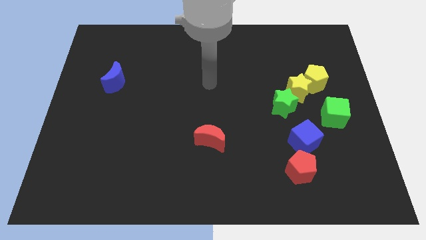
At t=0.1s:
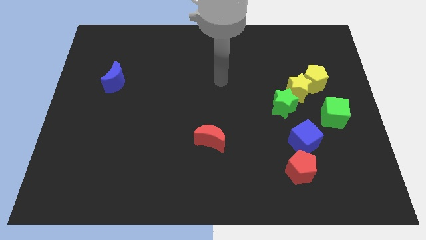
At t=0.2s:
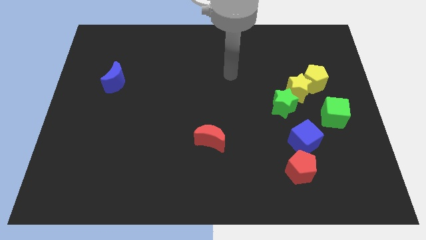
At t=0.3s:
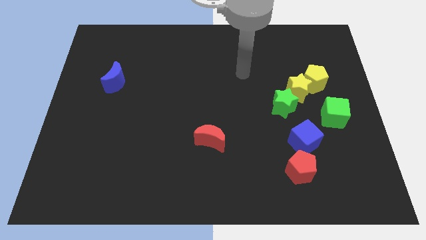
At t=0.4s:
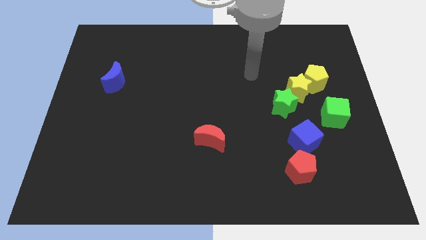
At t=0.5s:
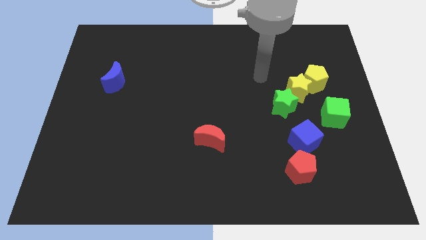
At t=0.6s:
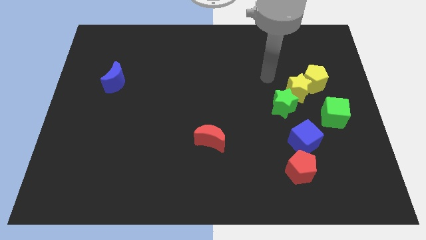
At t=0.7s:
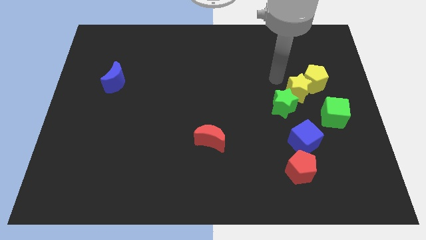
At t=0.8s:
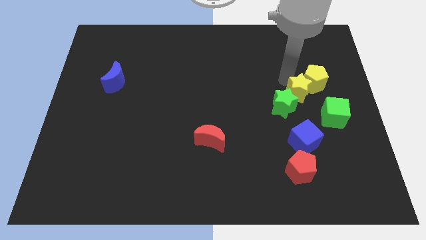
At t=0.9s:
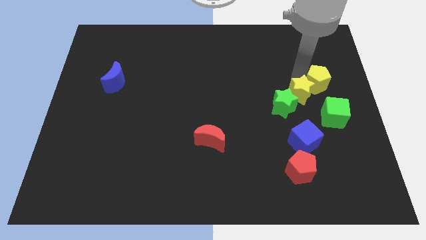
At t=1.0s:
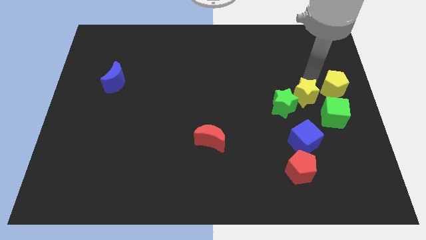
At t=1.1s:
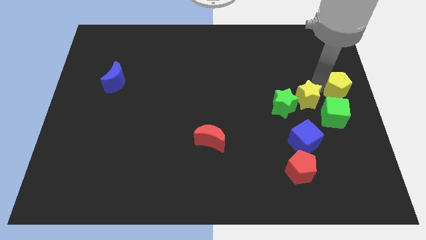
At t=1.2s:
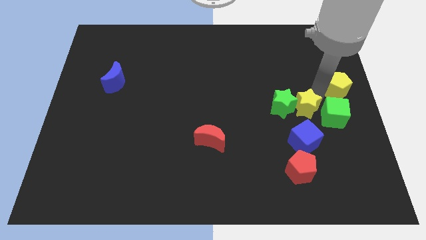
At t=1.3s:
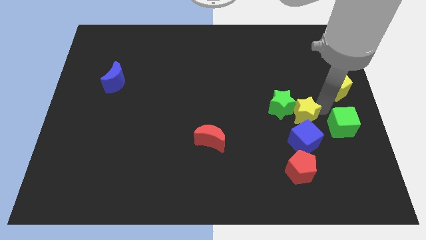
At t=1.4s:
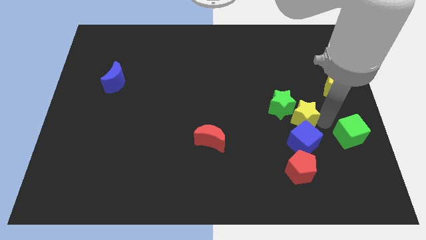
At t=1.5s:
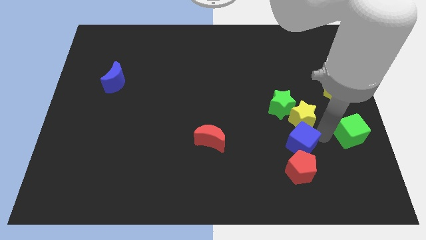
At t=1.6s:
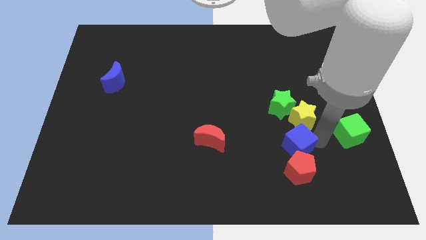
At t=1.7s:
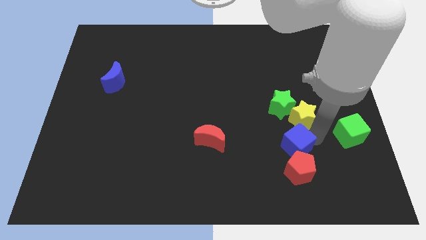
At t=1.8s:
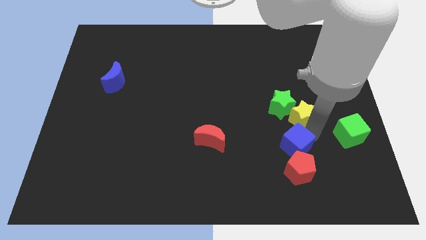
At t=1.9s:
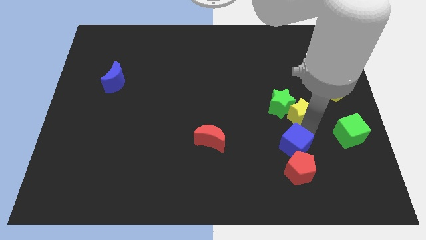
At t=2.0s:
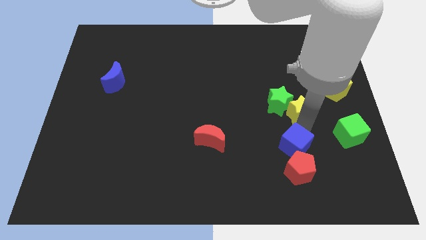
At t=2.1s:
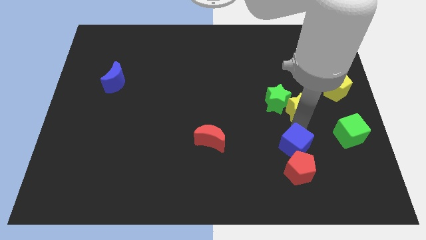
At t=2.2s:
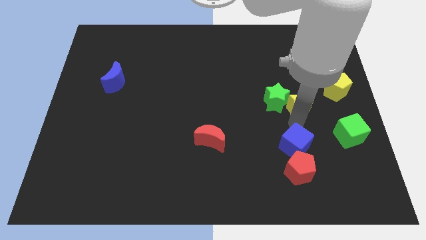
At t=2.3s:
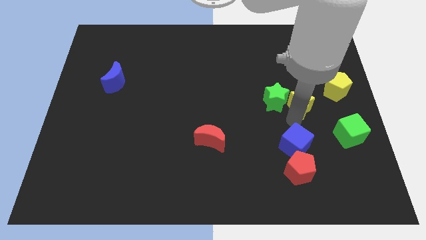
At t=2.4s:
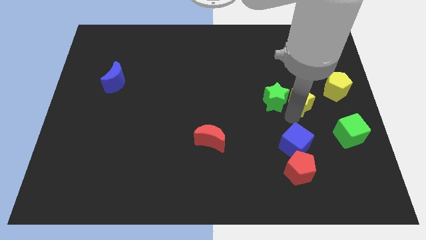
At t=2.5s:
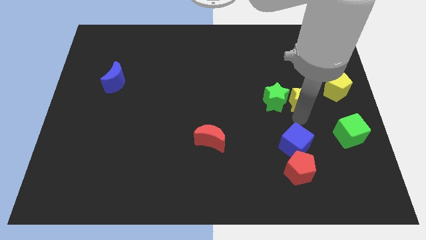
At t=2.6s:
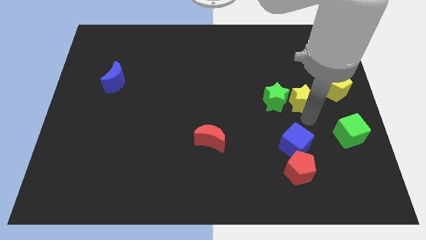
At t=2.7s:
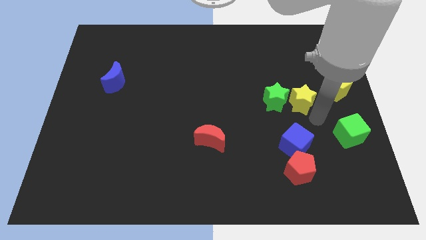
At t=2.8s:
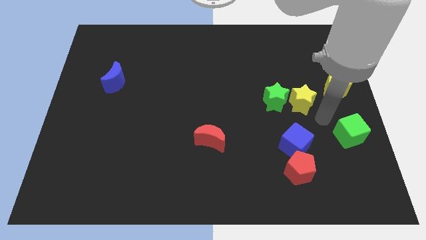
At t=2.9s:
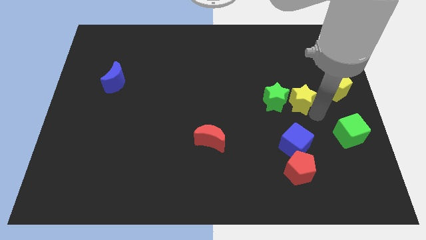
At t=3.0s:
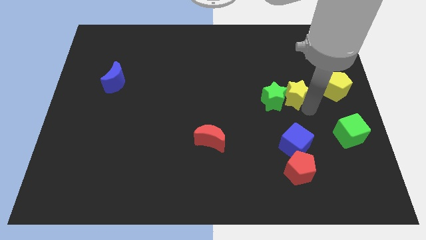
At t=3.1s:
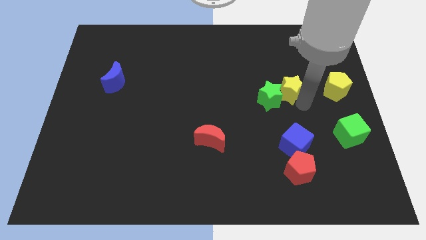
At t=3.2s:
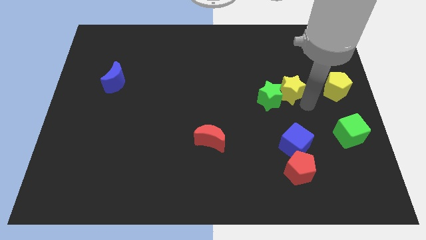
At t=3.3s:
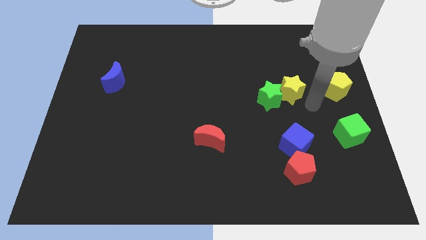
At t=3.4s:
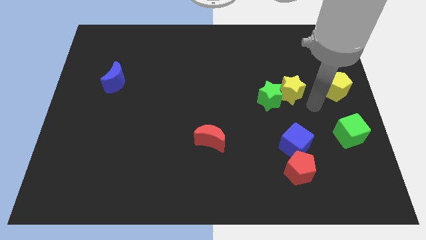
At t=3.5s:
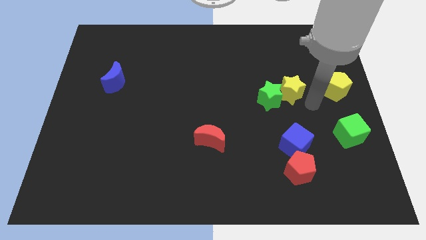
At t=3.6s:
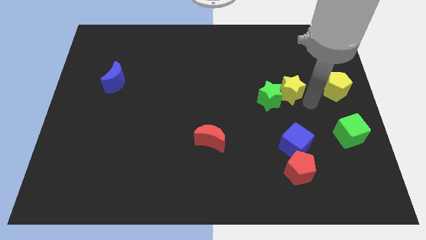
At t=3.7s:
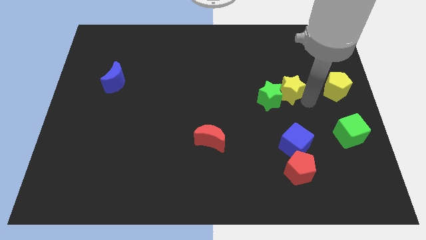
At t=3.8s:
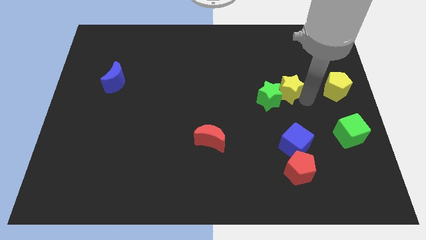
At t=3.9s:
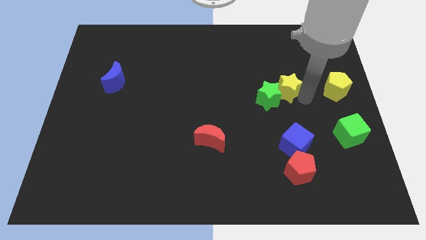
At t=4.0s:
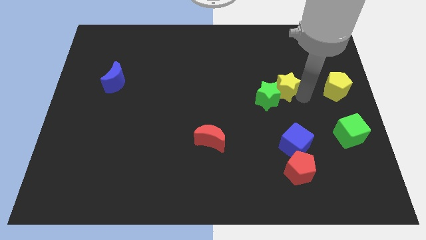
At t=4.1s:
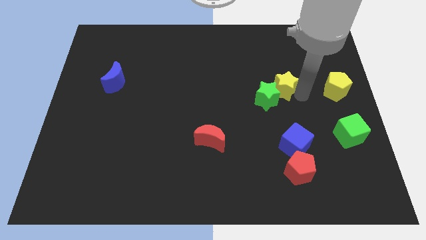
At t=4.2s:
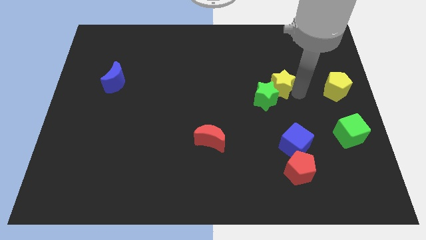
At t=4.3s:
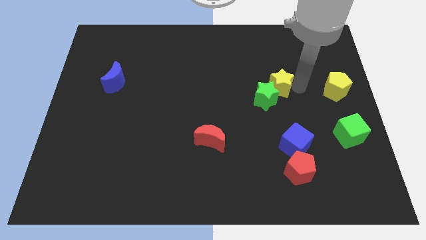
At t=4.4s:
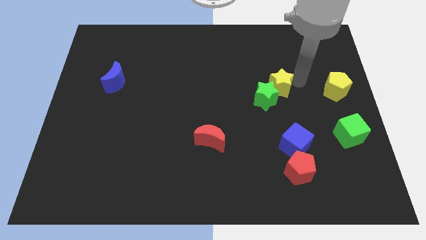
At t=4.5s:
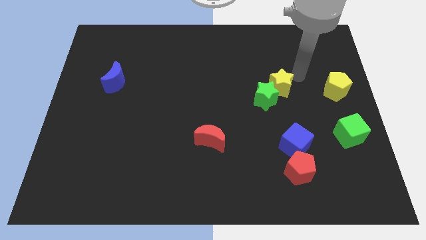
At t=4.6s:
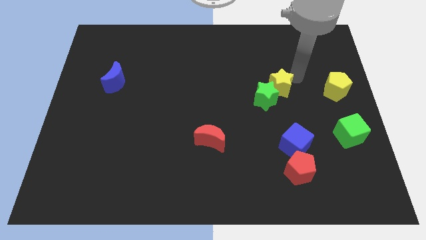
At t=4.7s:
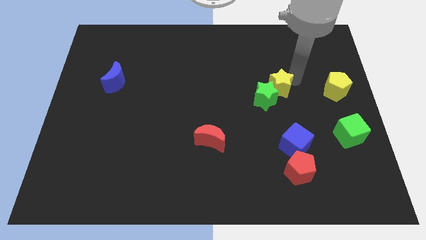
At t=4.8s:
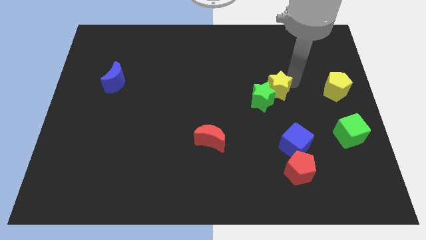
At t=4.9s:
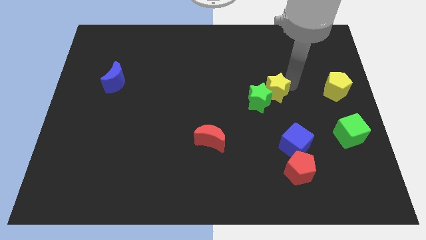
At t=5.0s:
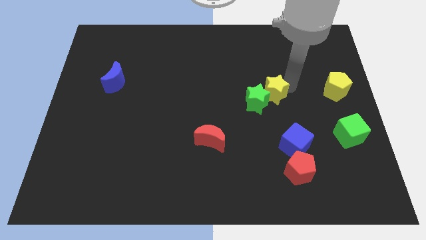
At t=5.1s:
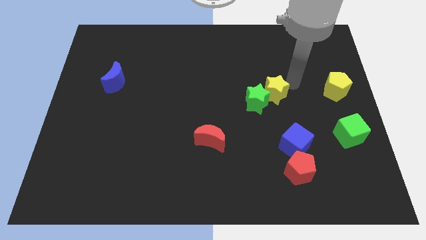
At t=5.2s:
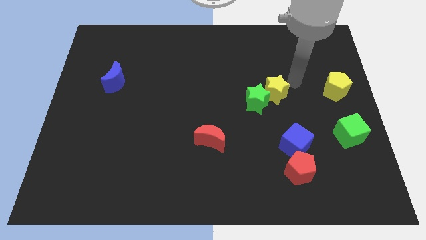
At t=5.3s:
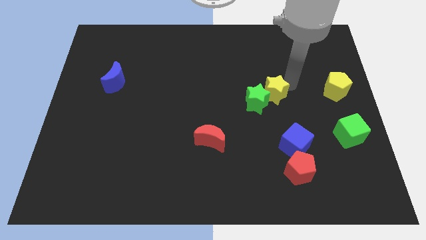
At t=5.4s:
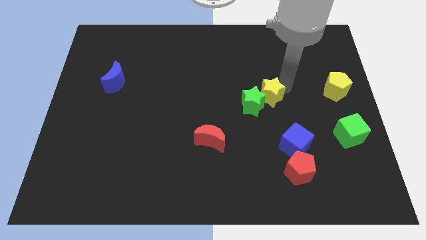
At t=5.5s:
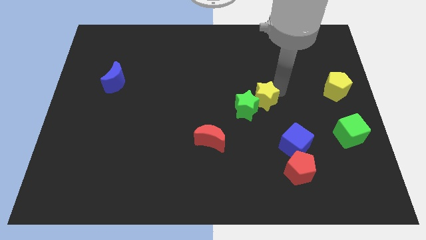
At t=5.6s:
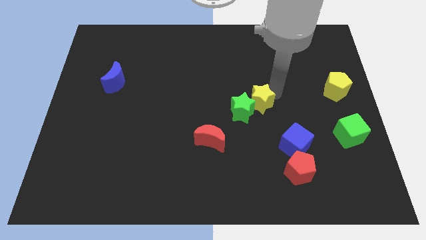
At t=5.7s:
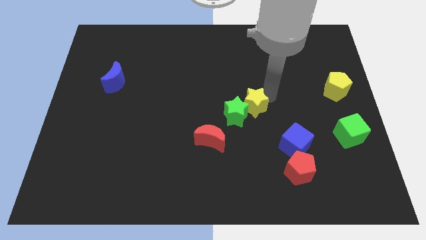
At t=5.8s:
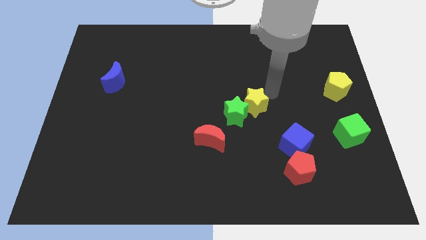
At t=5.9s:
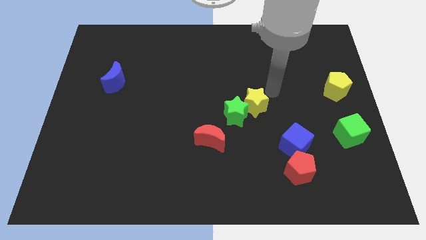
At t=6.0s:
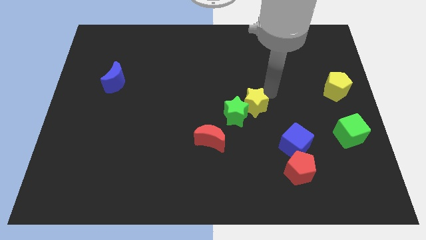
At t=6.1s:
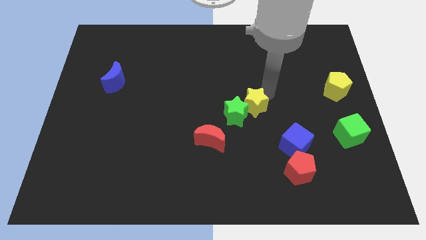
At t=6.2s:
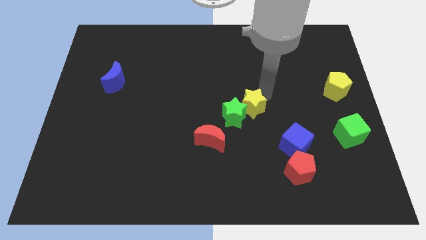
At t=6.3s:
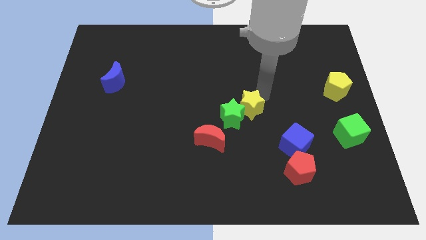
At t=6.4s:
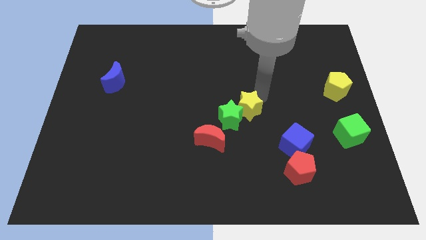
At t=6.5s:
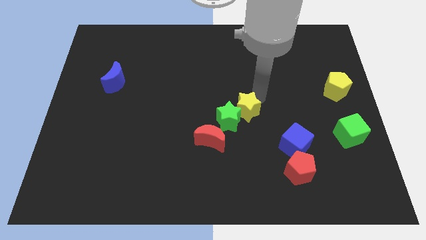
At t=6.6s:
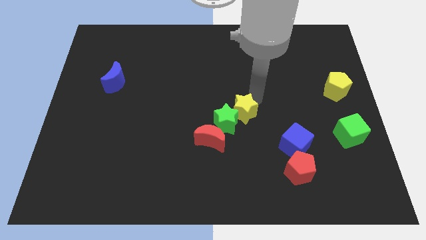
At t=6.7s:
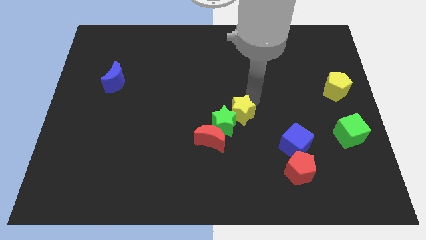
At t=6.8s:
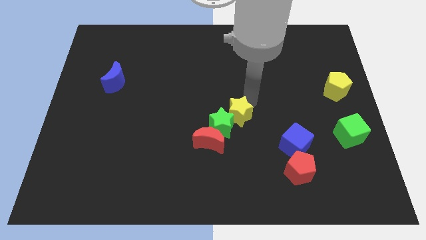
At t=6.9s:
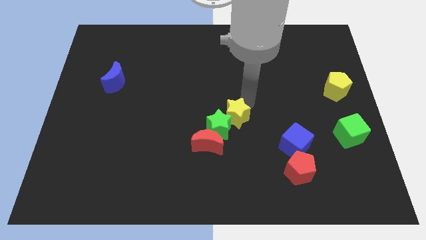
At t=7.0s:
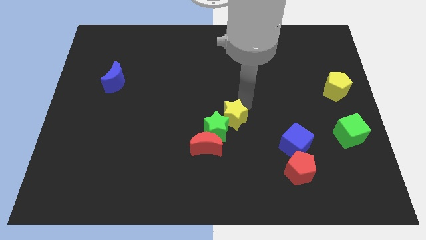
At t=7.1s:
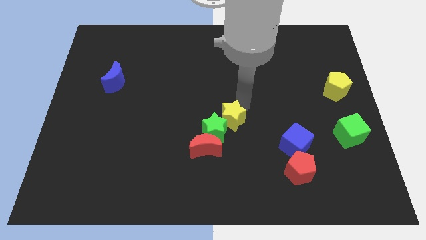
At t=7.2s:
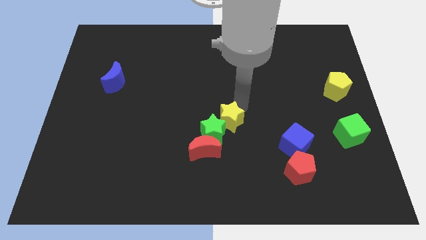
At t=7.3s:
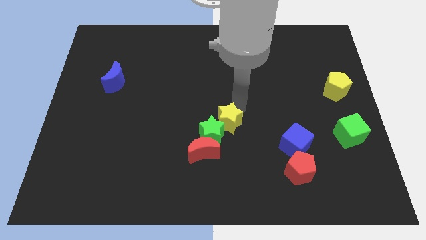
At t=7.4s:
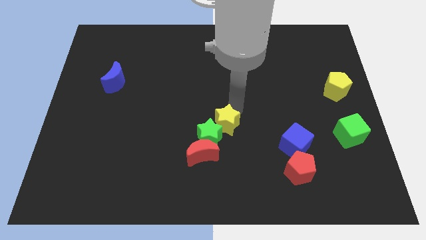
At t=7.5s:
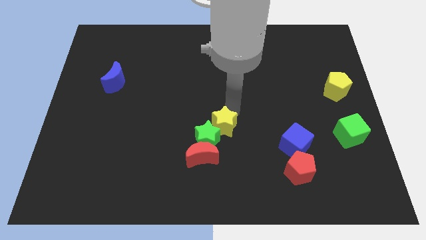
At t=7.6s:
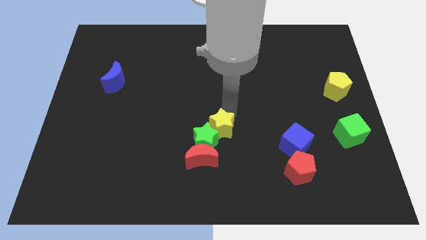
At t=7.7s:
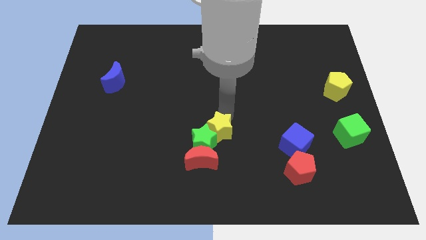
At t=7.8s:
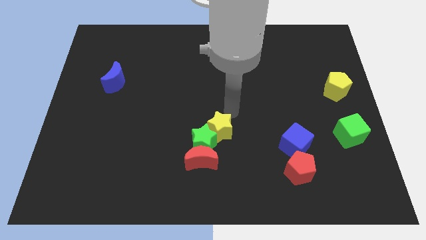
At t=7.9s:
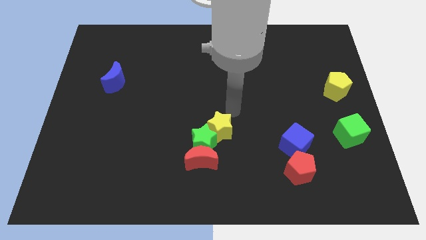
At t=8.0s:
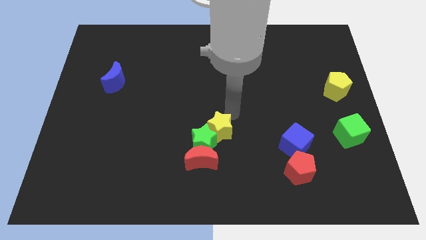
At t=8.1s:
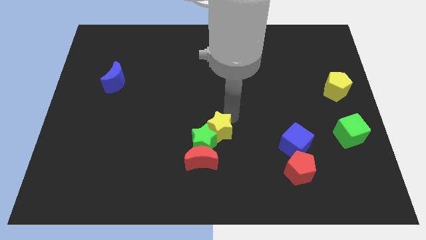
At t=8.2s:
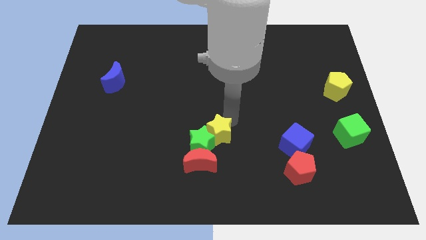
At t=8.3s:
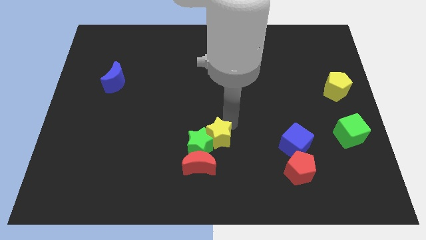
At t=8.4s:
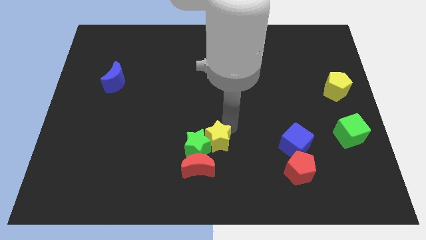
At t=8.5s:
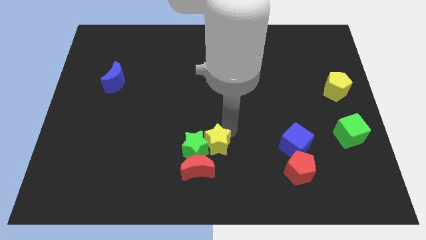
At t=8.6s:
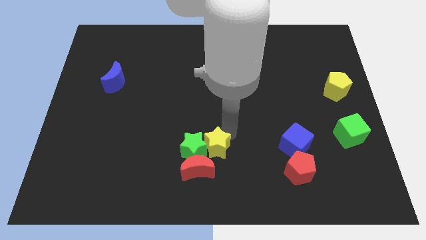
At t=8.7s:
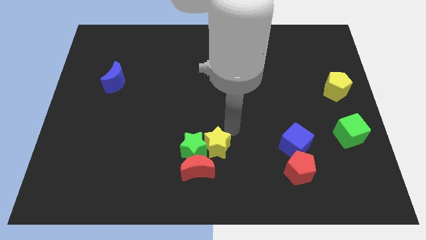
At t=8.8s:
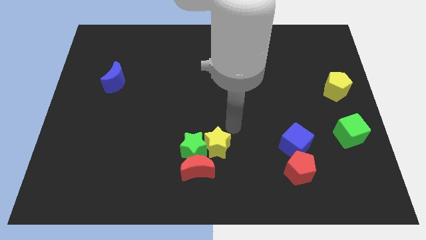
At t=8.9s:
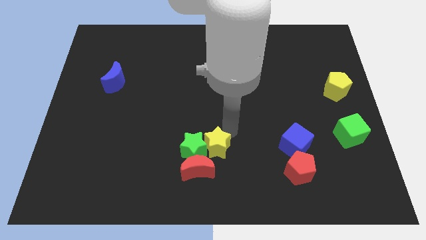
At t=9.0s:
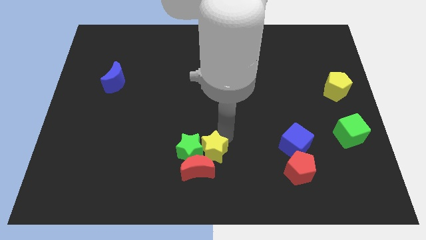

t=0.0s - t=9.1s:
push the yellow star to the red moon
